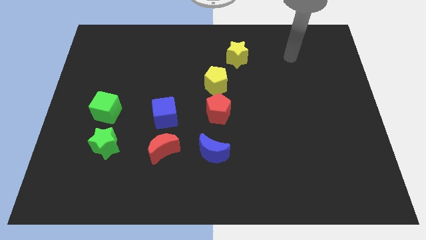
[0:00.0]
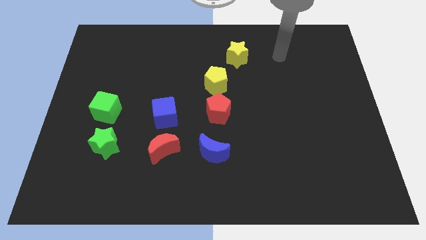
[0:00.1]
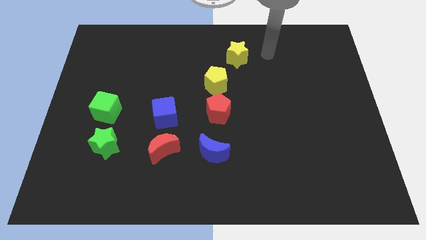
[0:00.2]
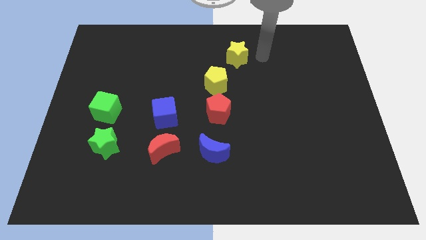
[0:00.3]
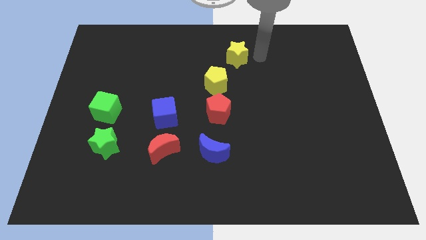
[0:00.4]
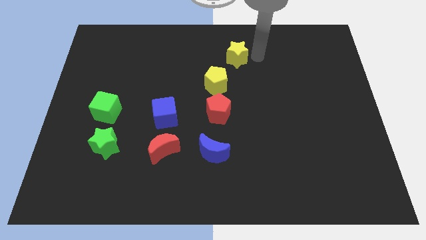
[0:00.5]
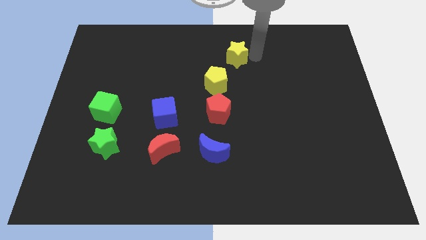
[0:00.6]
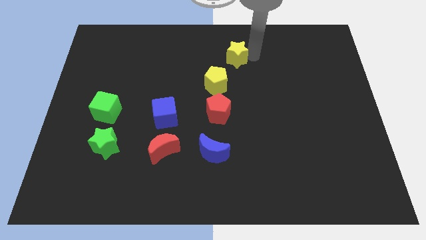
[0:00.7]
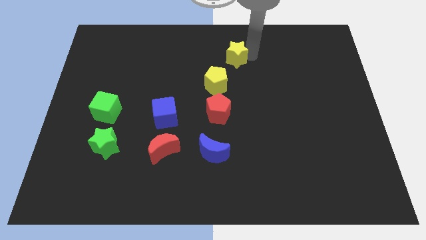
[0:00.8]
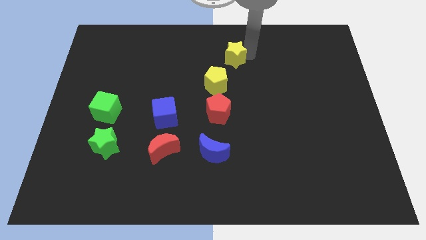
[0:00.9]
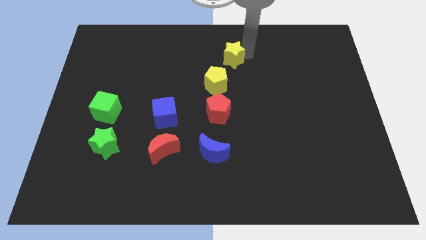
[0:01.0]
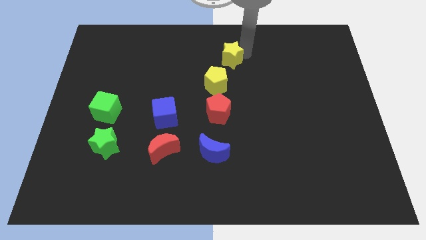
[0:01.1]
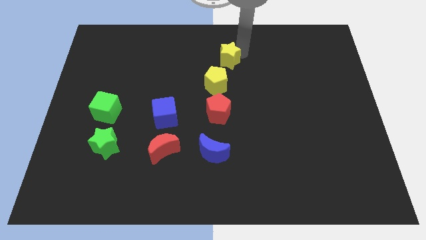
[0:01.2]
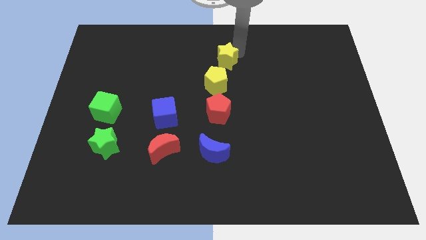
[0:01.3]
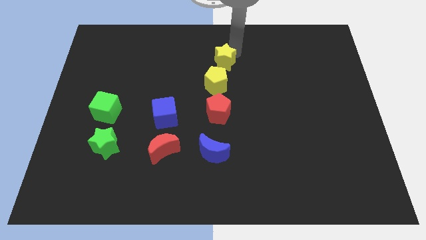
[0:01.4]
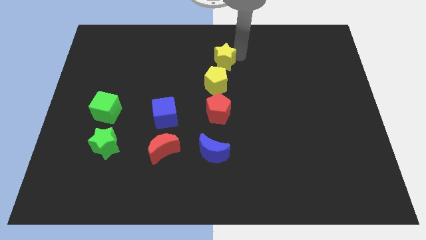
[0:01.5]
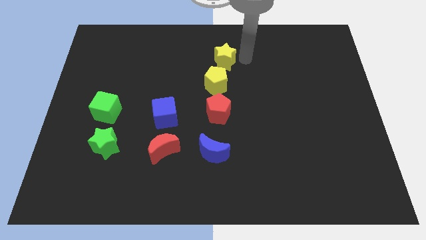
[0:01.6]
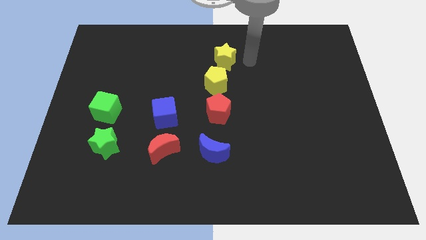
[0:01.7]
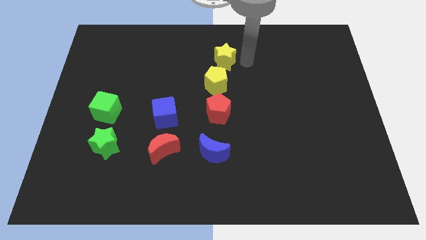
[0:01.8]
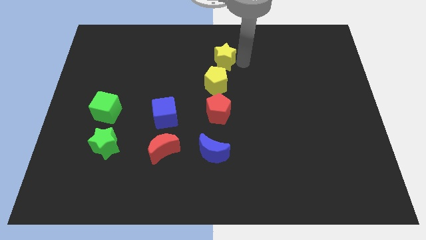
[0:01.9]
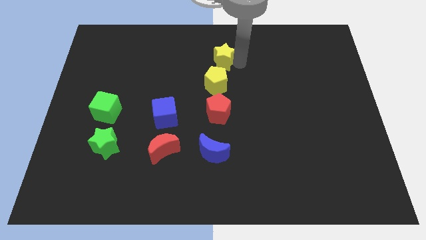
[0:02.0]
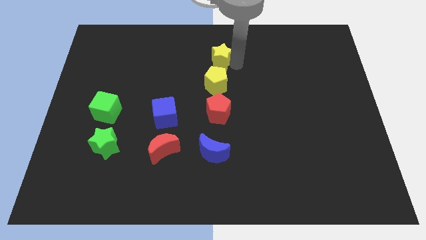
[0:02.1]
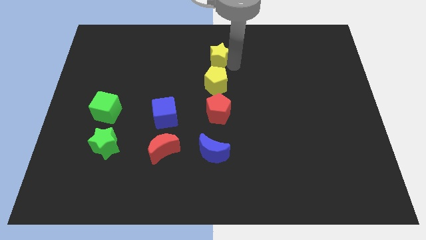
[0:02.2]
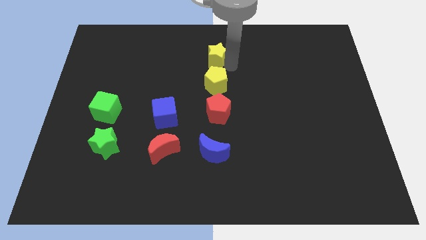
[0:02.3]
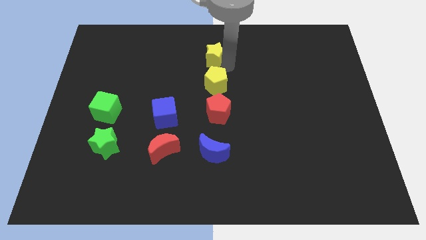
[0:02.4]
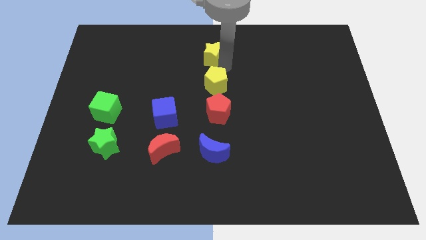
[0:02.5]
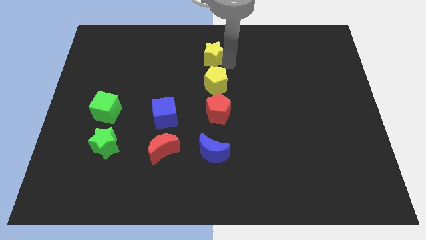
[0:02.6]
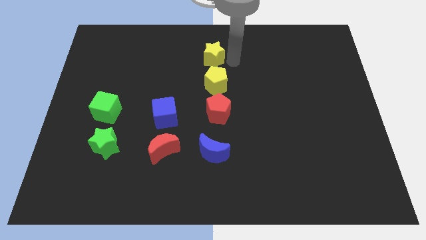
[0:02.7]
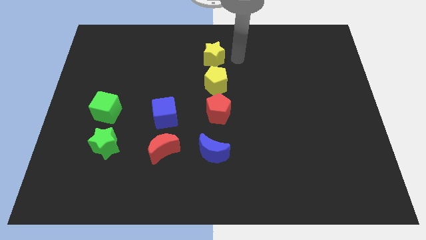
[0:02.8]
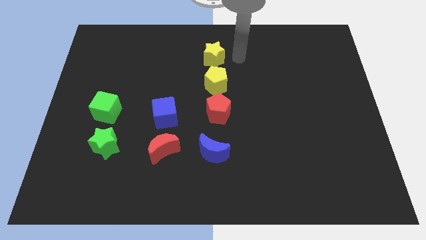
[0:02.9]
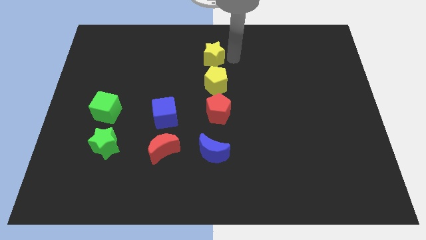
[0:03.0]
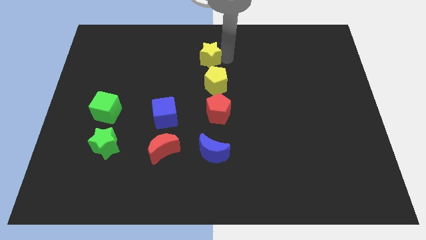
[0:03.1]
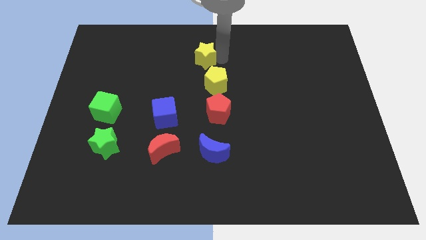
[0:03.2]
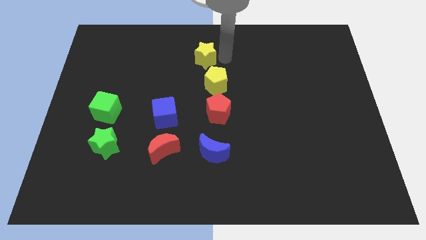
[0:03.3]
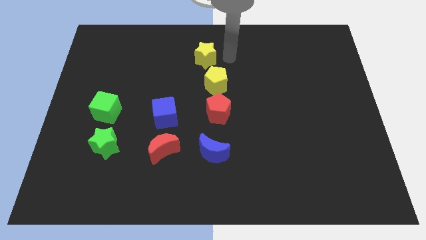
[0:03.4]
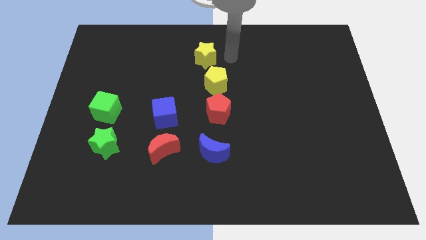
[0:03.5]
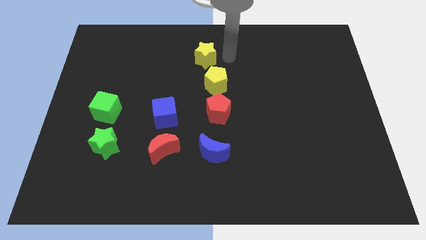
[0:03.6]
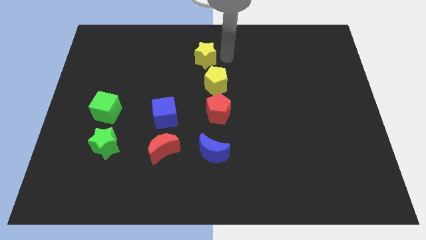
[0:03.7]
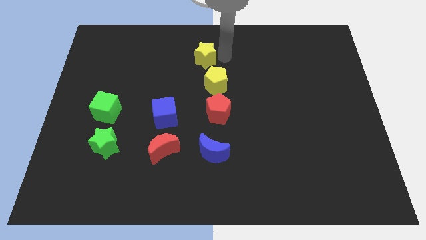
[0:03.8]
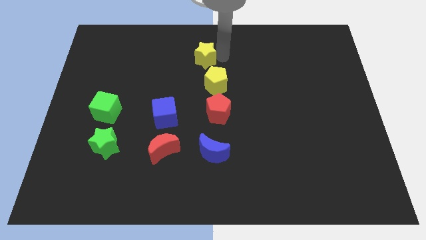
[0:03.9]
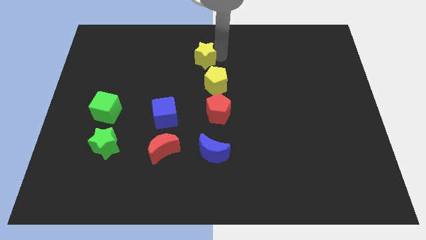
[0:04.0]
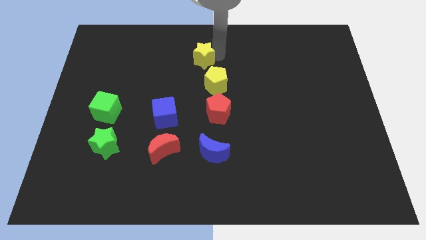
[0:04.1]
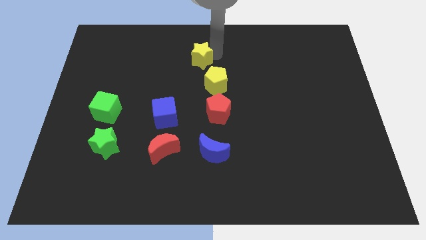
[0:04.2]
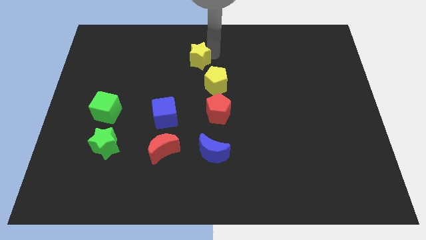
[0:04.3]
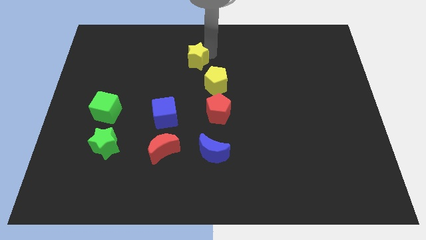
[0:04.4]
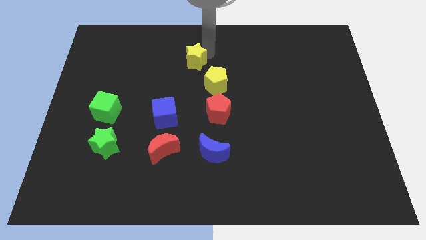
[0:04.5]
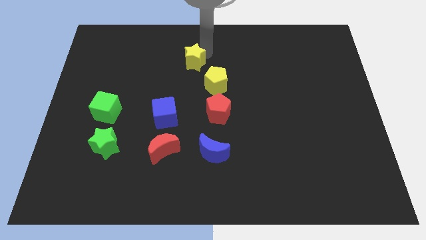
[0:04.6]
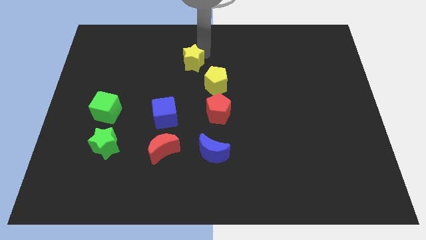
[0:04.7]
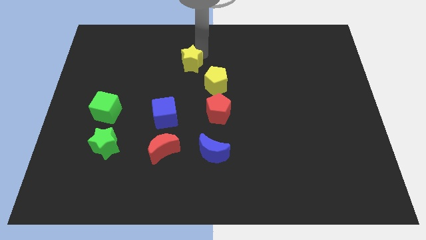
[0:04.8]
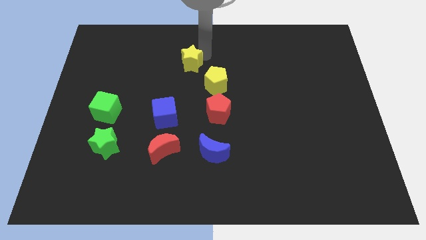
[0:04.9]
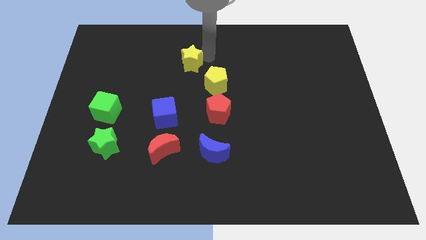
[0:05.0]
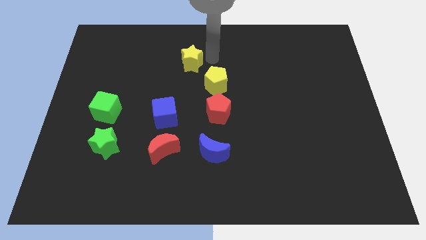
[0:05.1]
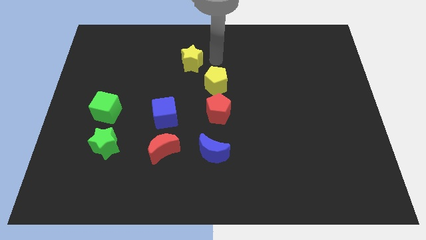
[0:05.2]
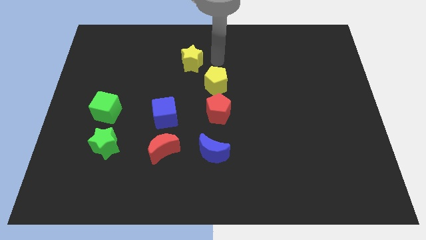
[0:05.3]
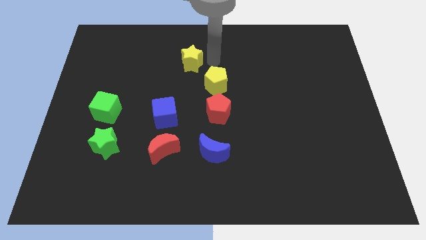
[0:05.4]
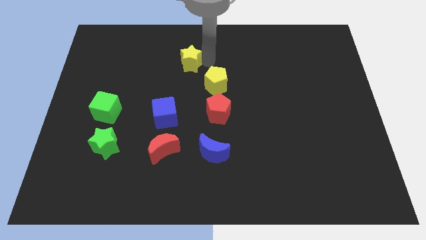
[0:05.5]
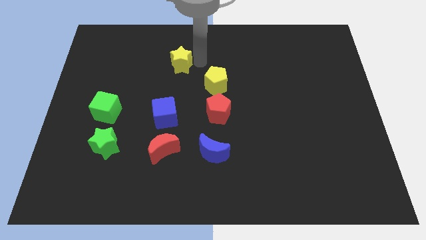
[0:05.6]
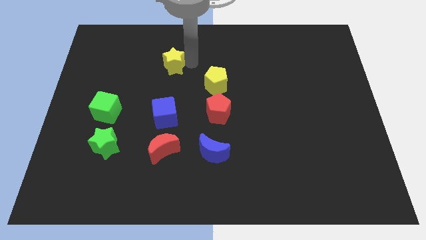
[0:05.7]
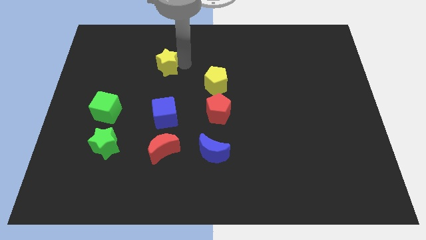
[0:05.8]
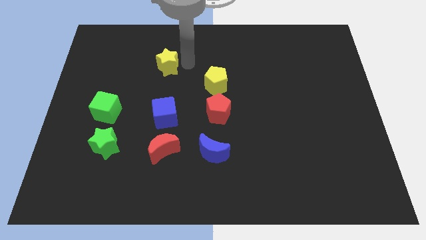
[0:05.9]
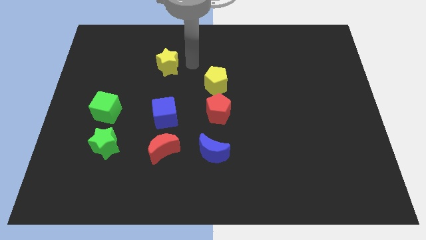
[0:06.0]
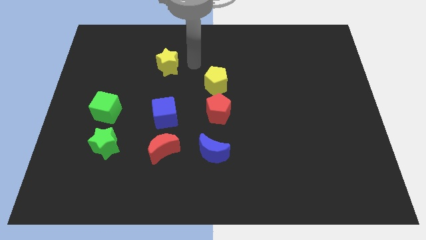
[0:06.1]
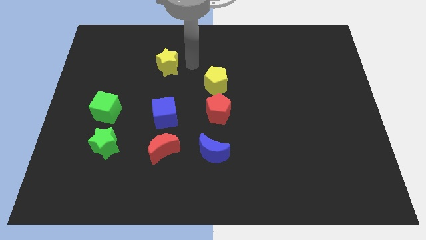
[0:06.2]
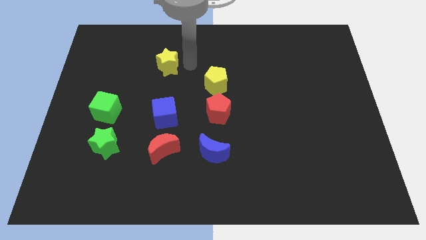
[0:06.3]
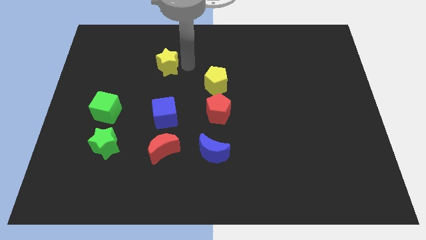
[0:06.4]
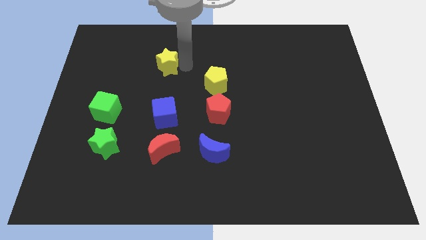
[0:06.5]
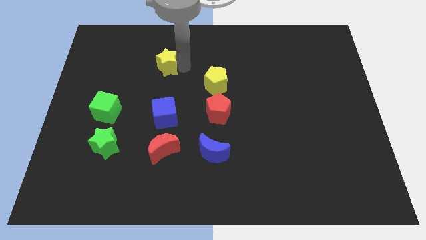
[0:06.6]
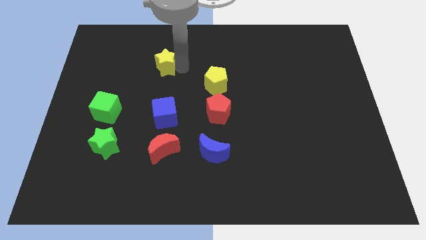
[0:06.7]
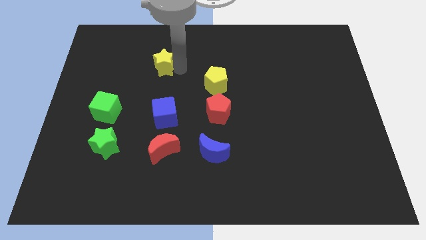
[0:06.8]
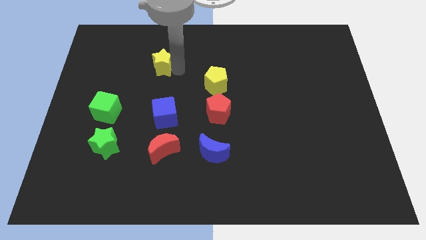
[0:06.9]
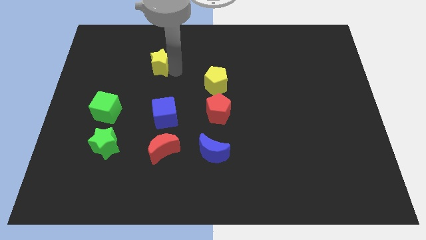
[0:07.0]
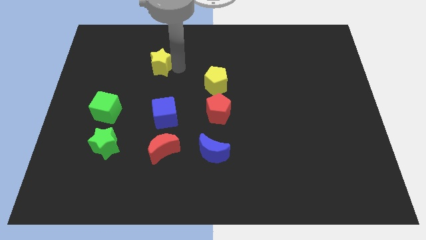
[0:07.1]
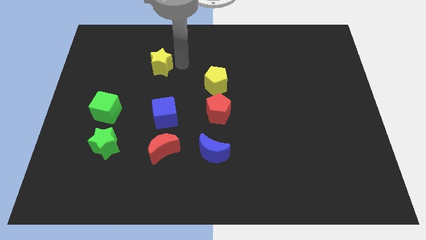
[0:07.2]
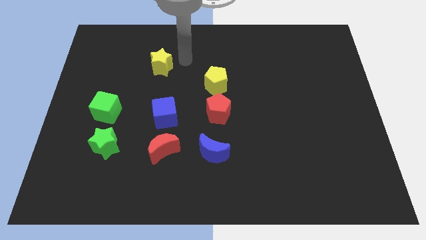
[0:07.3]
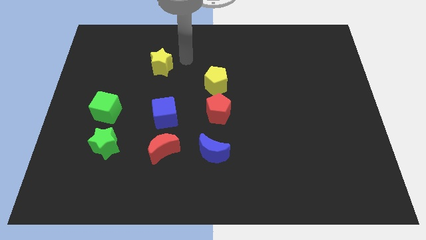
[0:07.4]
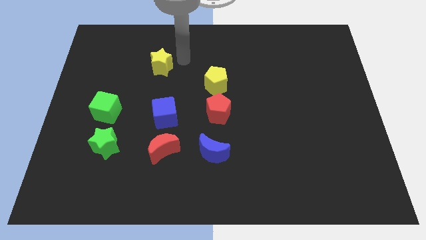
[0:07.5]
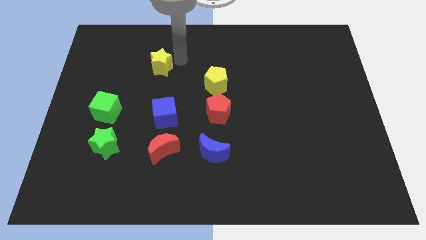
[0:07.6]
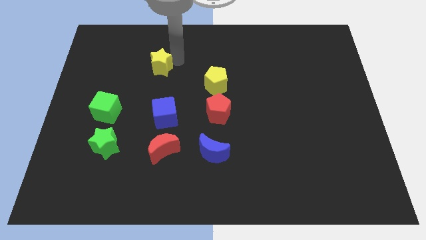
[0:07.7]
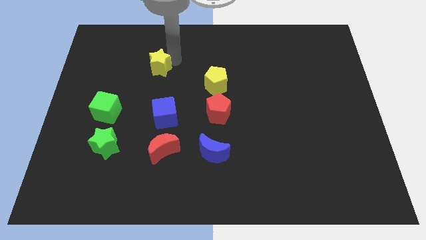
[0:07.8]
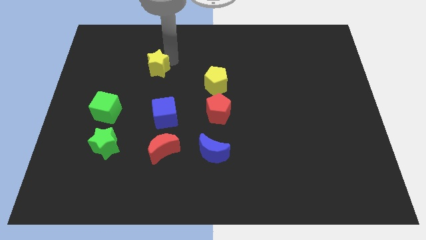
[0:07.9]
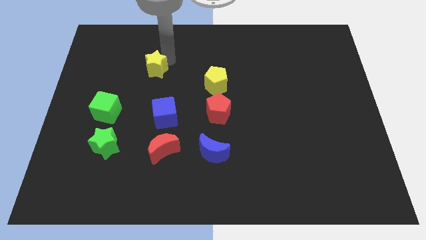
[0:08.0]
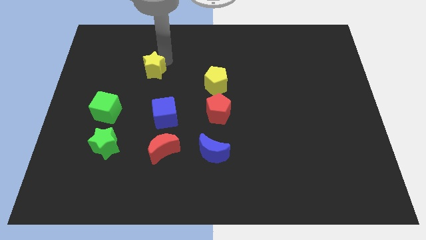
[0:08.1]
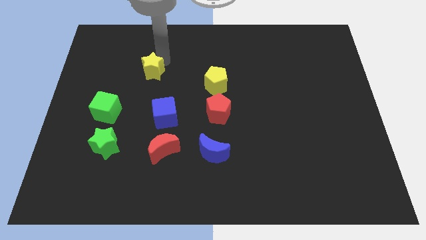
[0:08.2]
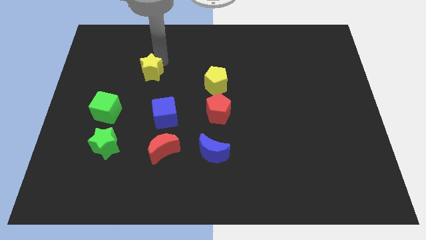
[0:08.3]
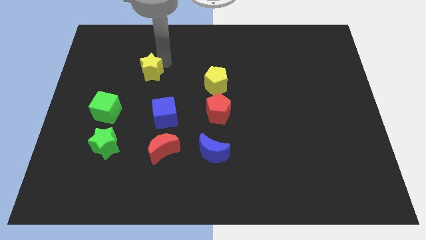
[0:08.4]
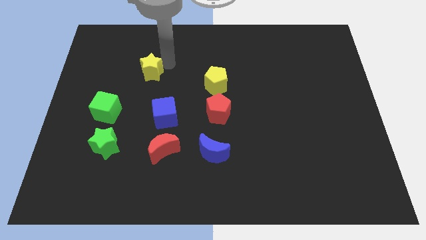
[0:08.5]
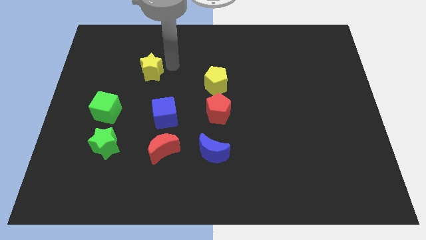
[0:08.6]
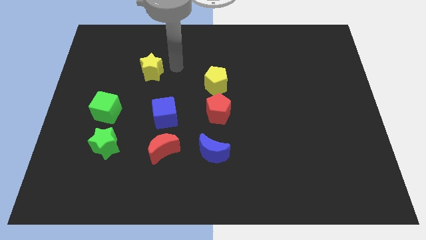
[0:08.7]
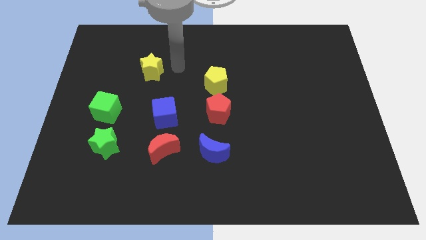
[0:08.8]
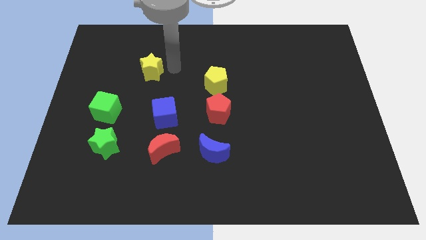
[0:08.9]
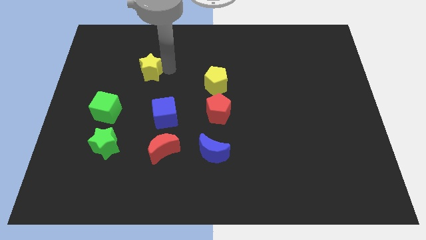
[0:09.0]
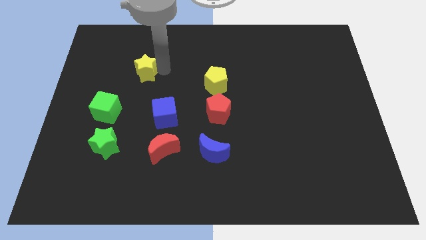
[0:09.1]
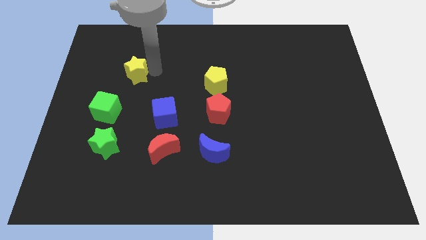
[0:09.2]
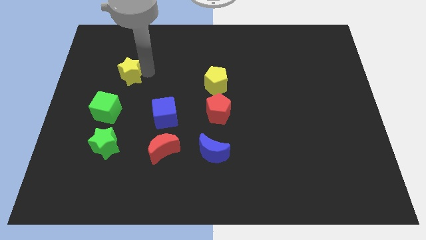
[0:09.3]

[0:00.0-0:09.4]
push the yellow star above the green cube
